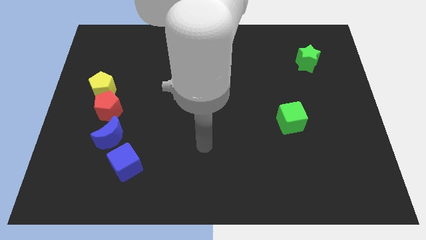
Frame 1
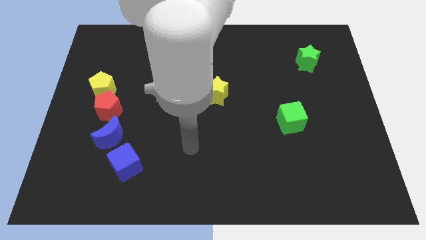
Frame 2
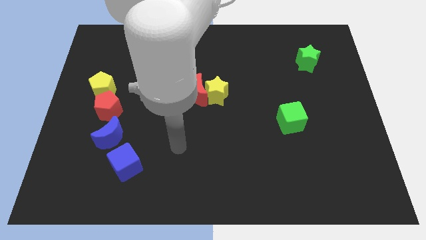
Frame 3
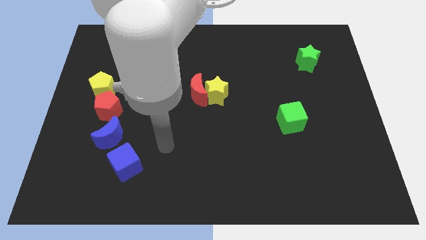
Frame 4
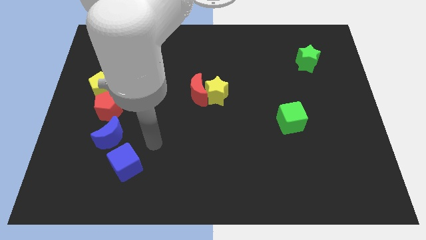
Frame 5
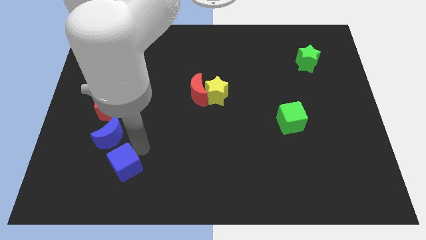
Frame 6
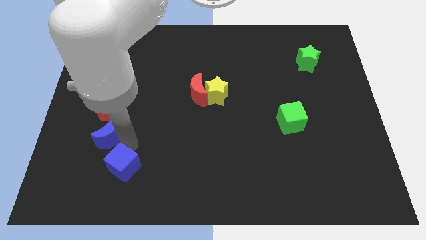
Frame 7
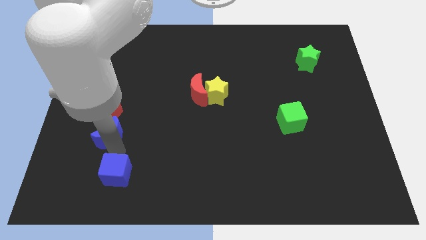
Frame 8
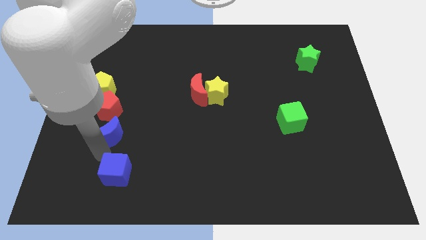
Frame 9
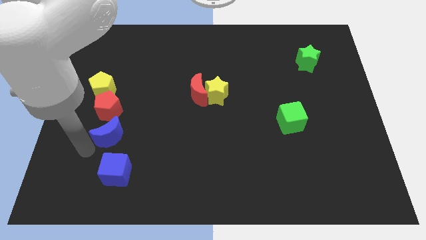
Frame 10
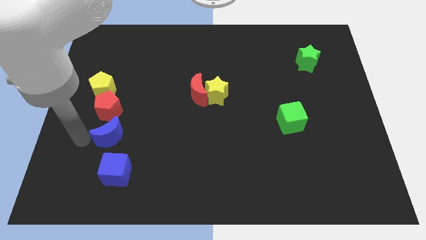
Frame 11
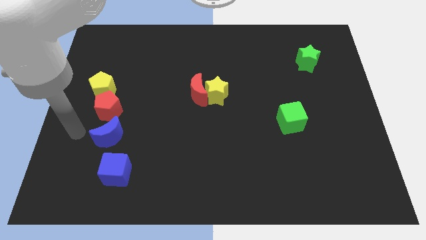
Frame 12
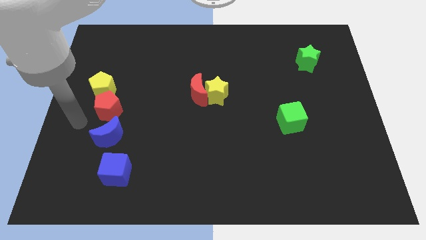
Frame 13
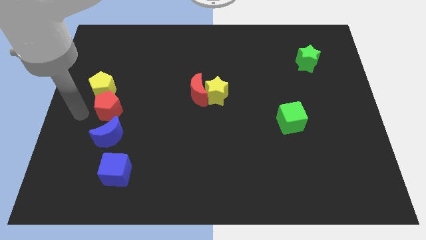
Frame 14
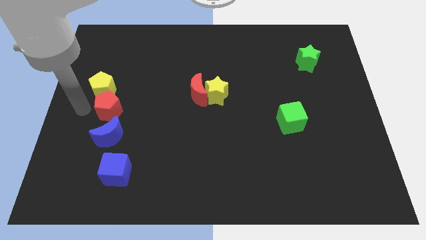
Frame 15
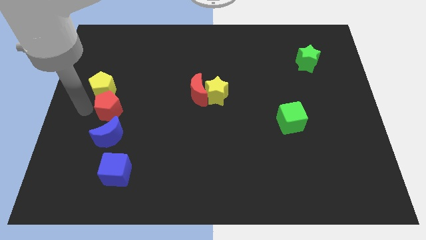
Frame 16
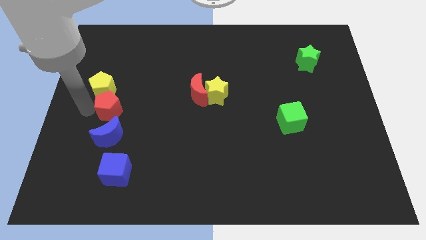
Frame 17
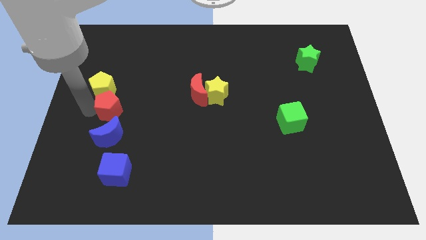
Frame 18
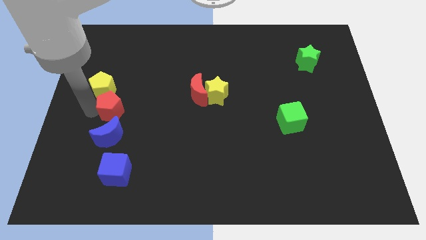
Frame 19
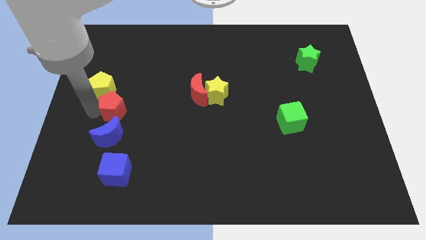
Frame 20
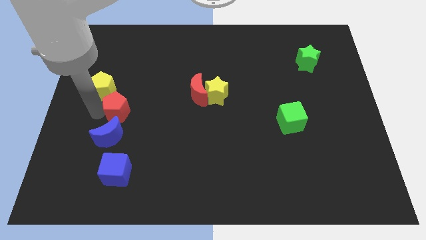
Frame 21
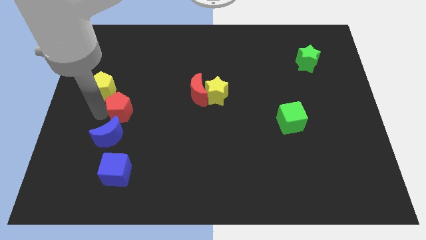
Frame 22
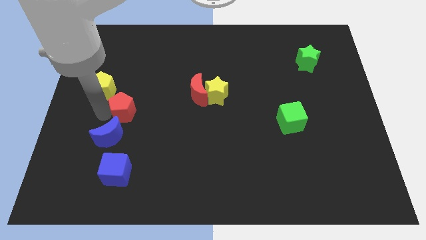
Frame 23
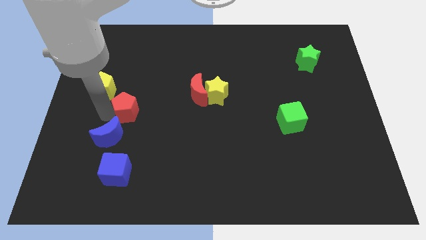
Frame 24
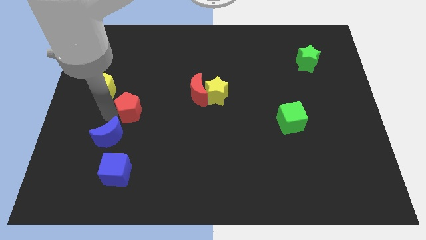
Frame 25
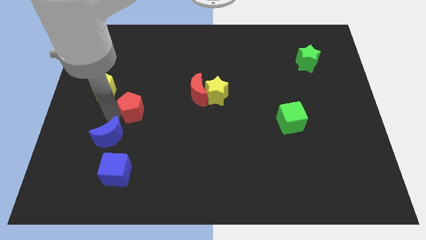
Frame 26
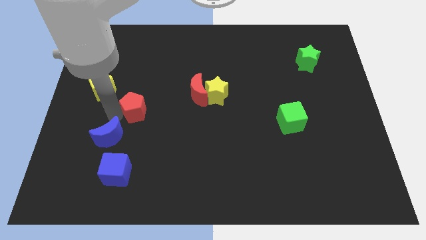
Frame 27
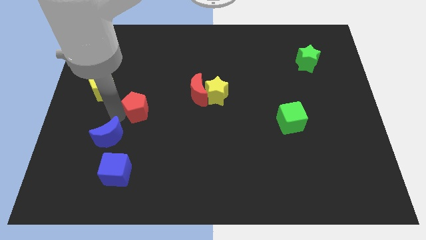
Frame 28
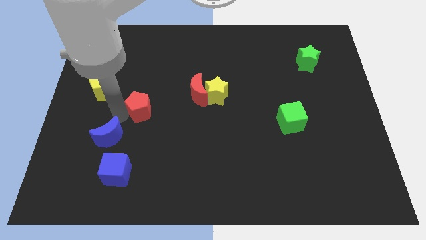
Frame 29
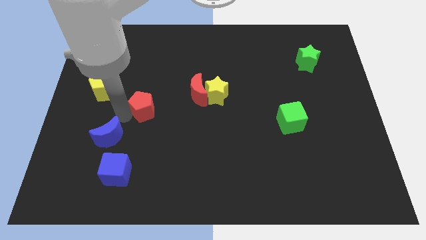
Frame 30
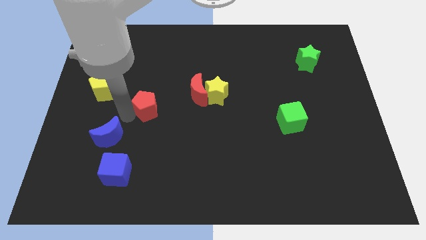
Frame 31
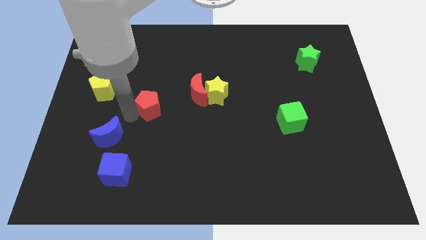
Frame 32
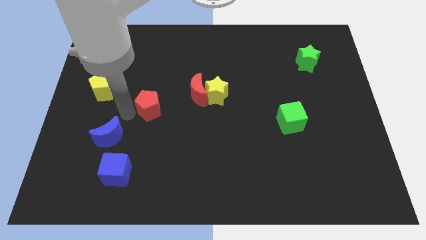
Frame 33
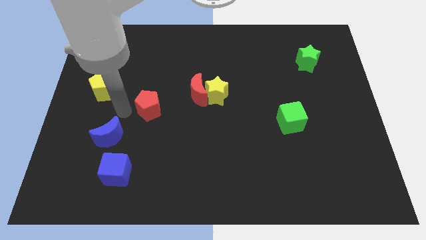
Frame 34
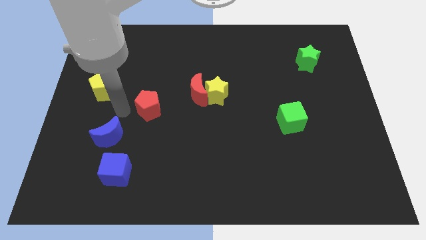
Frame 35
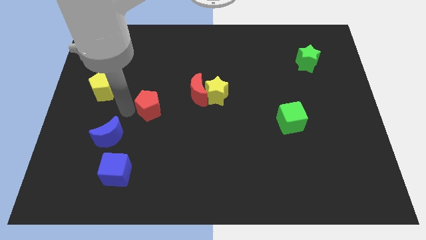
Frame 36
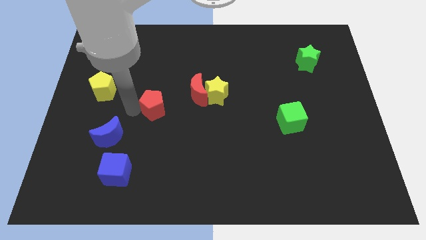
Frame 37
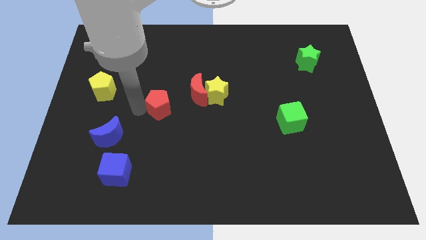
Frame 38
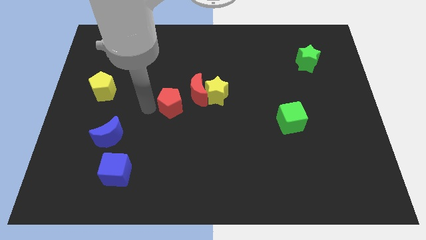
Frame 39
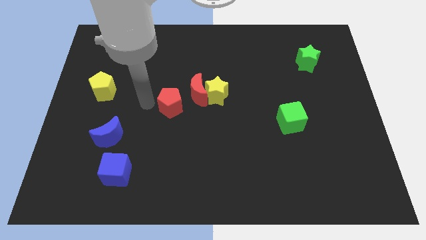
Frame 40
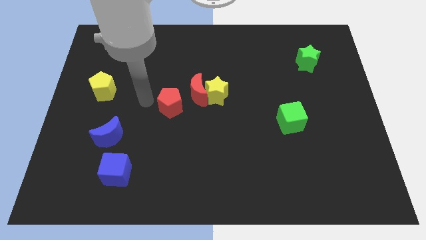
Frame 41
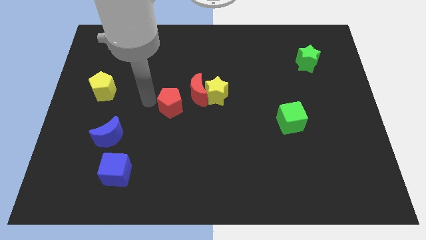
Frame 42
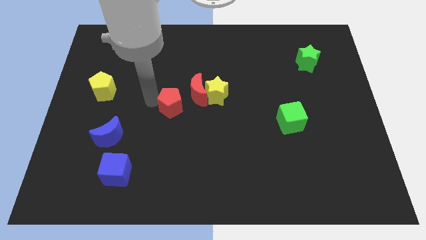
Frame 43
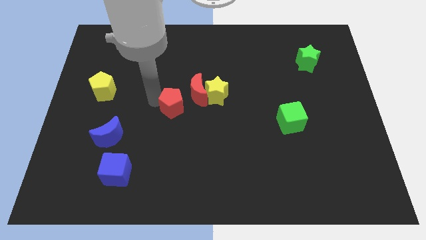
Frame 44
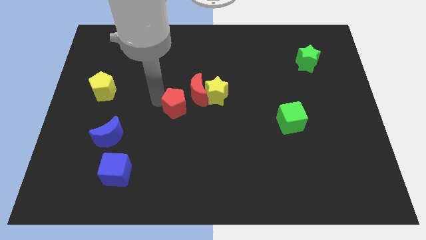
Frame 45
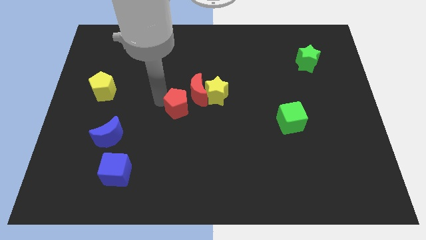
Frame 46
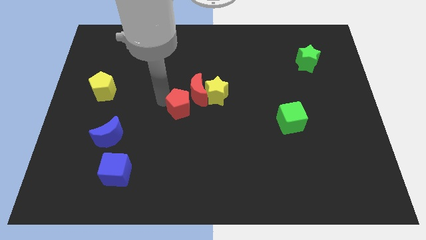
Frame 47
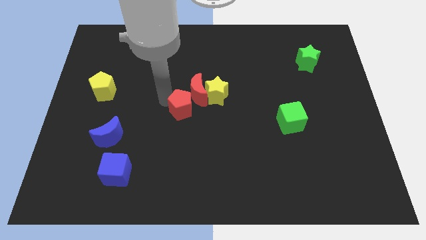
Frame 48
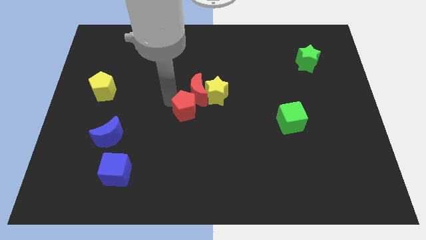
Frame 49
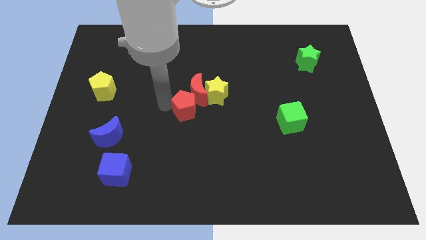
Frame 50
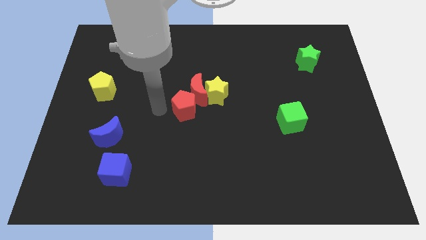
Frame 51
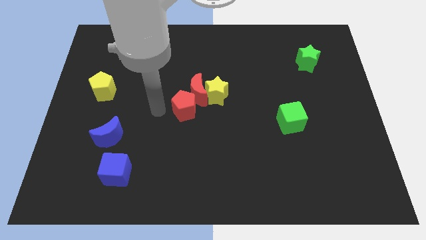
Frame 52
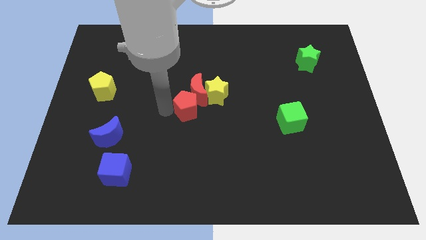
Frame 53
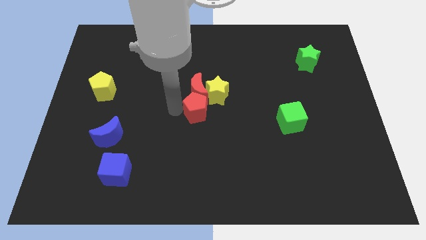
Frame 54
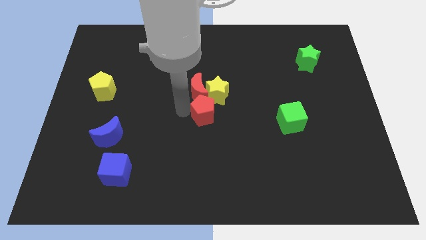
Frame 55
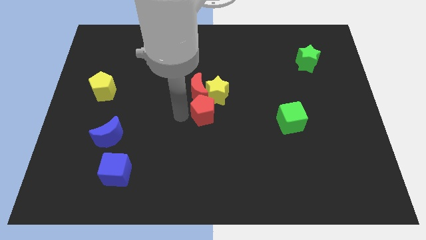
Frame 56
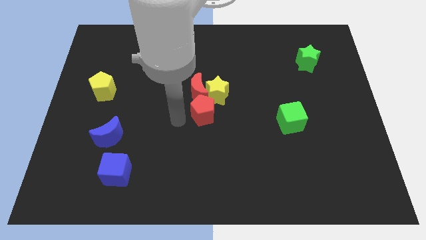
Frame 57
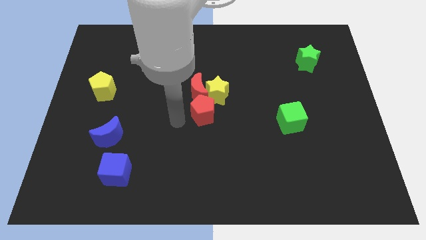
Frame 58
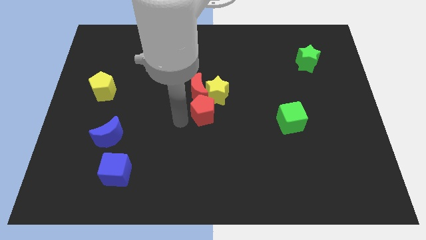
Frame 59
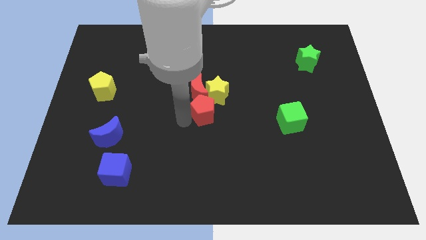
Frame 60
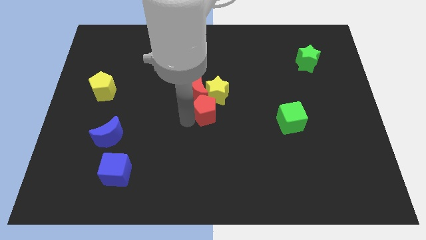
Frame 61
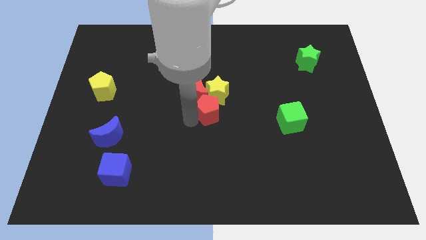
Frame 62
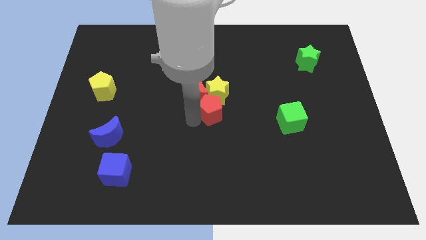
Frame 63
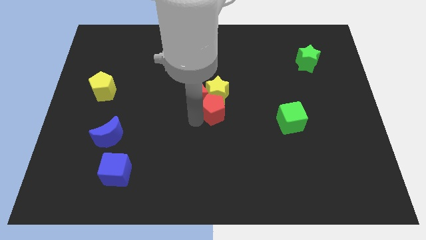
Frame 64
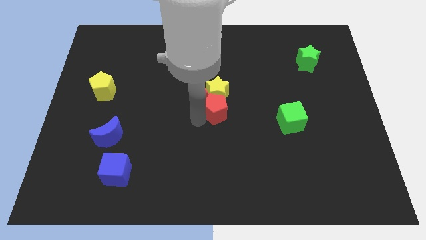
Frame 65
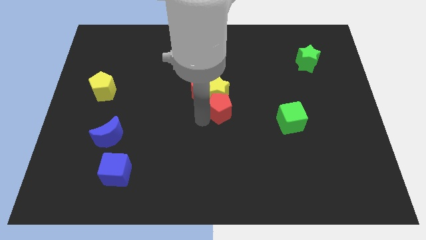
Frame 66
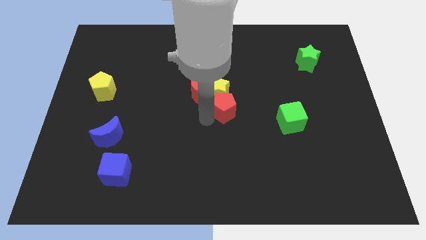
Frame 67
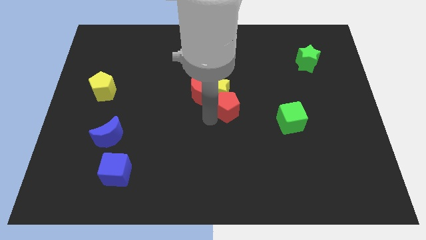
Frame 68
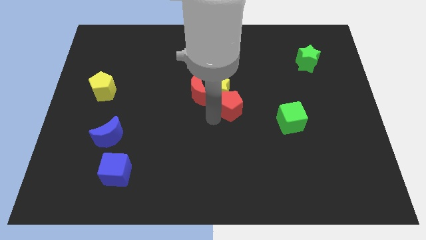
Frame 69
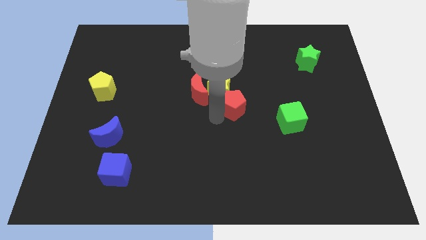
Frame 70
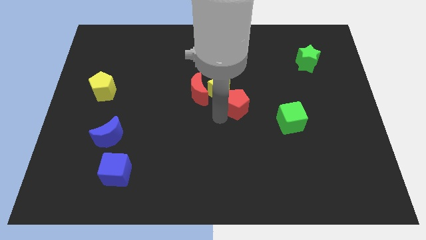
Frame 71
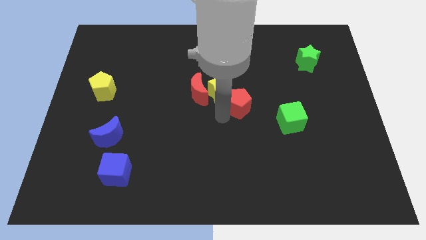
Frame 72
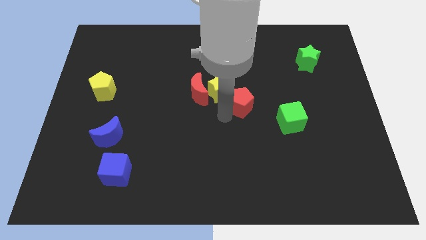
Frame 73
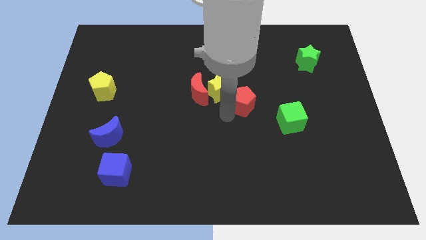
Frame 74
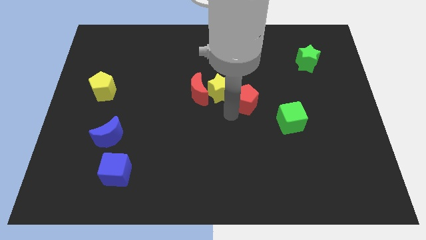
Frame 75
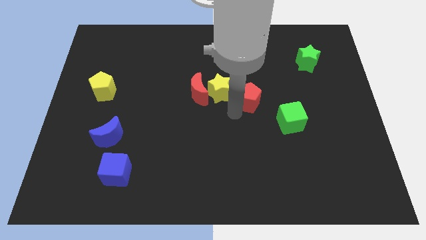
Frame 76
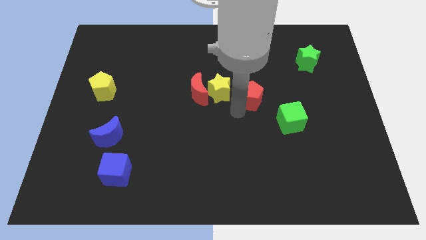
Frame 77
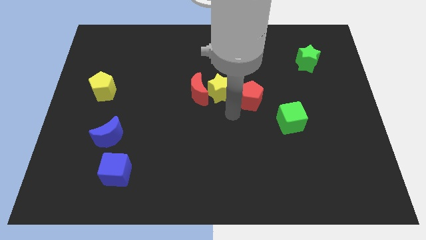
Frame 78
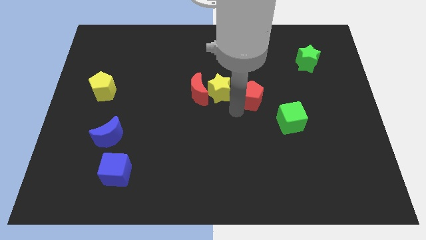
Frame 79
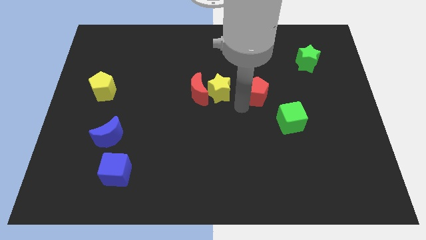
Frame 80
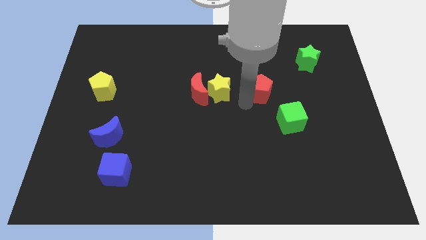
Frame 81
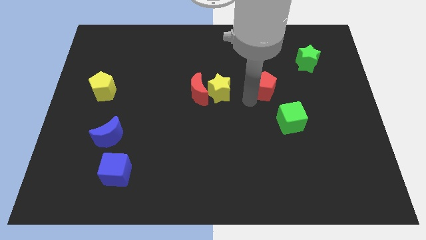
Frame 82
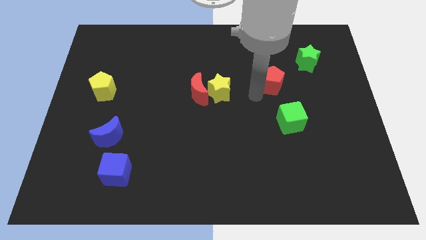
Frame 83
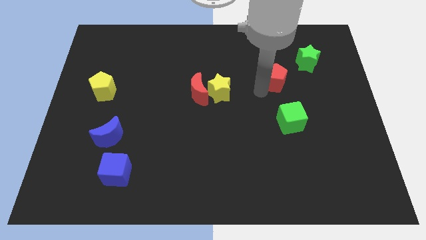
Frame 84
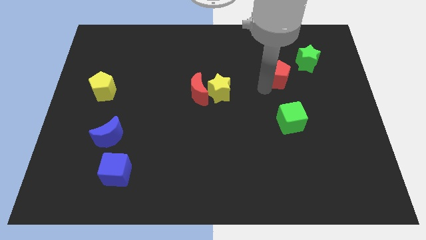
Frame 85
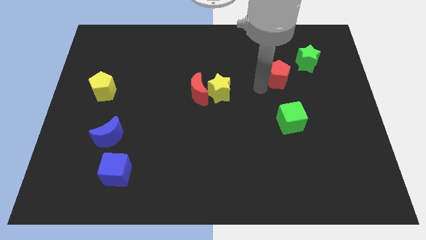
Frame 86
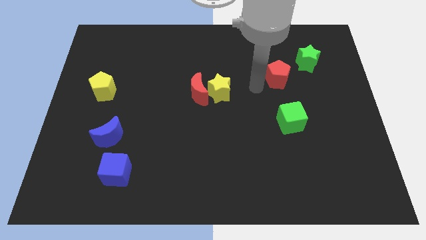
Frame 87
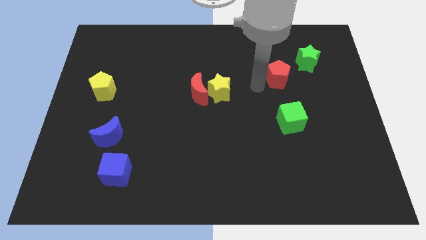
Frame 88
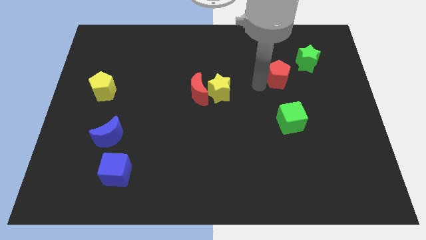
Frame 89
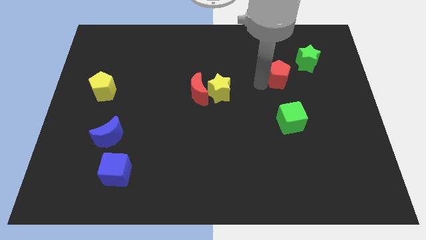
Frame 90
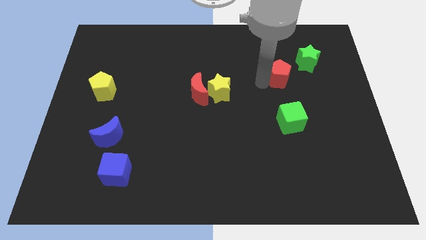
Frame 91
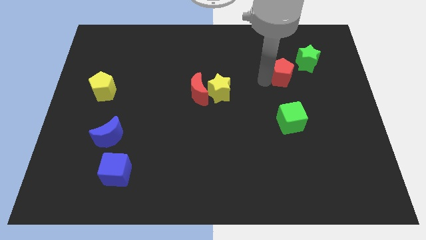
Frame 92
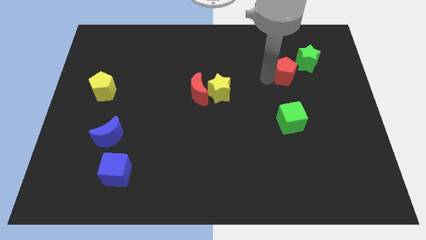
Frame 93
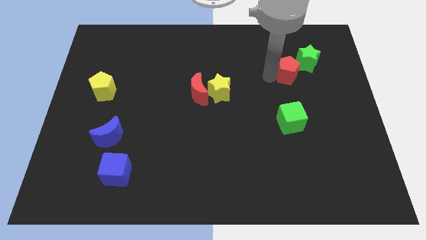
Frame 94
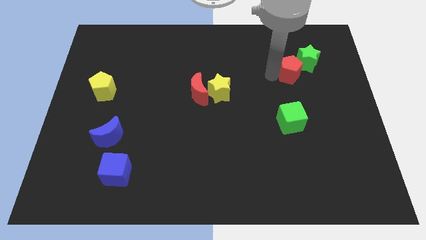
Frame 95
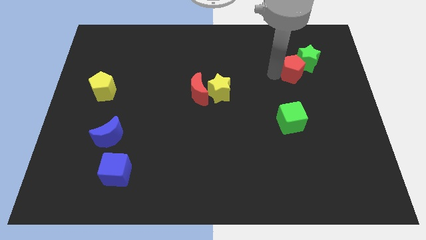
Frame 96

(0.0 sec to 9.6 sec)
put the red pentagon to the green star
